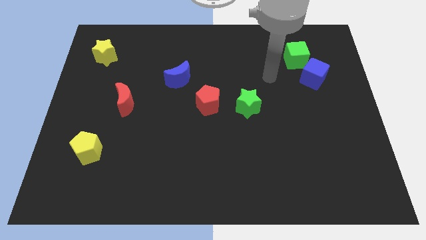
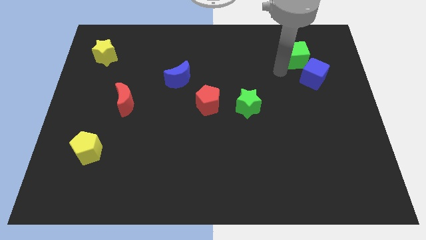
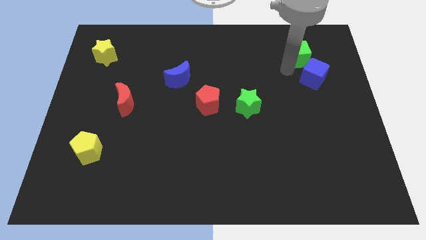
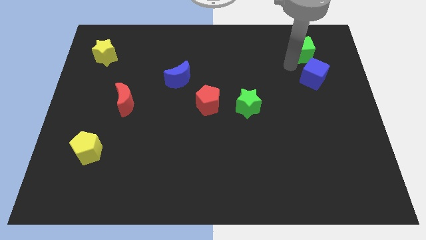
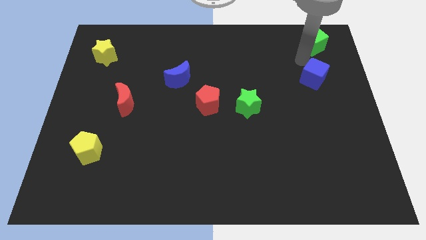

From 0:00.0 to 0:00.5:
separate the blue cube from the green cube

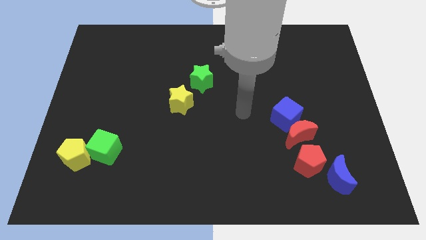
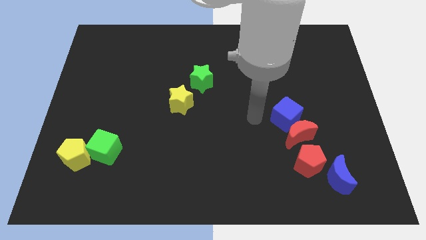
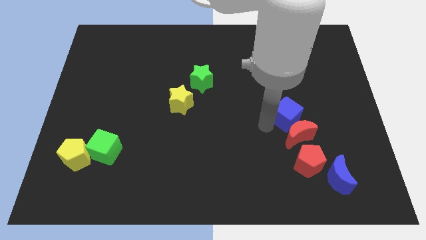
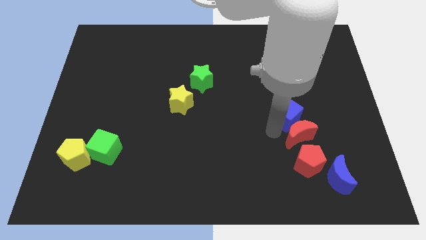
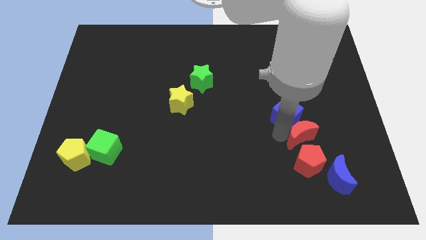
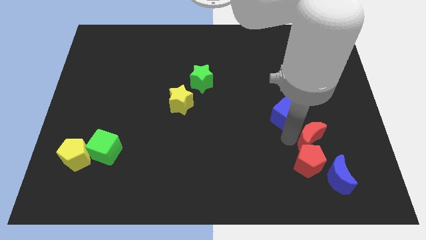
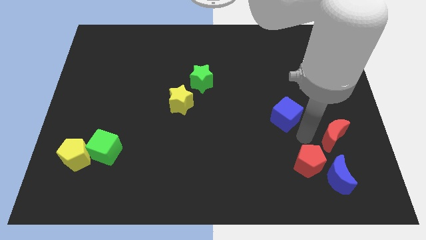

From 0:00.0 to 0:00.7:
move the blue cube away from the red moon

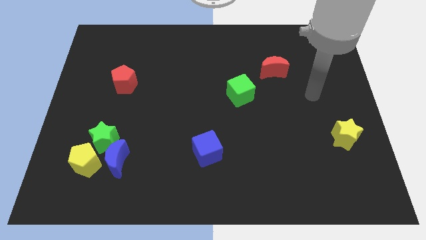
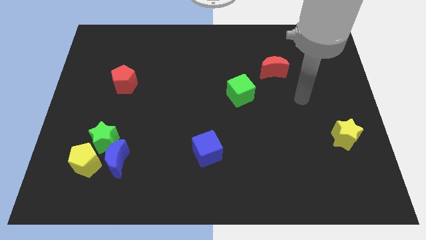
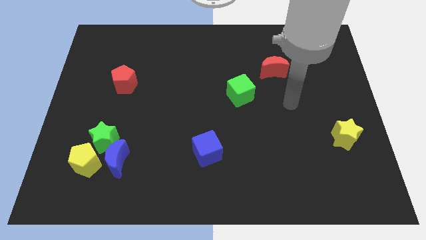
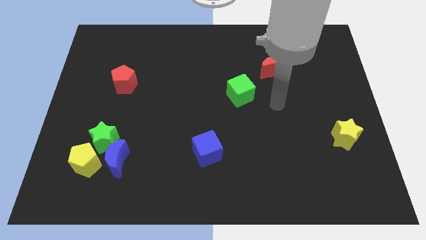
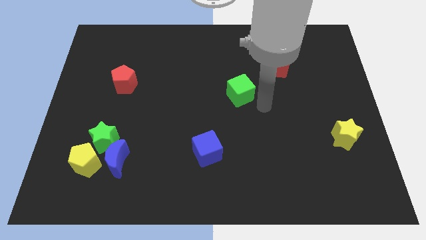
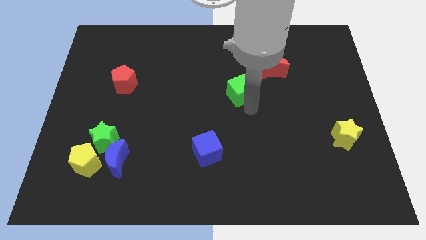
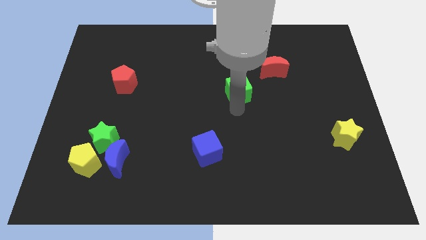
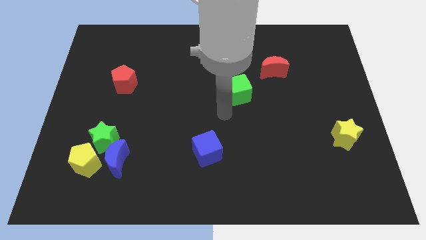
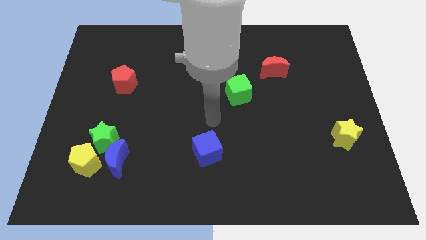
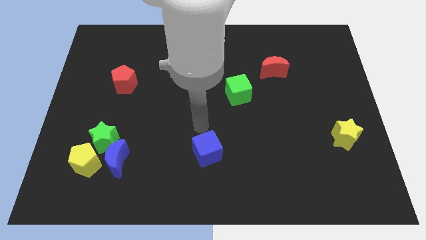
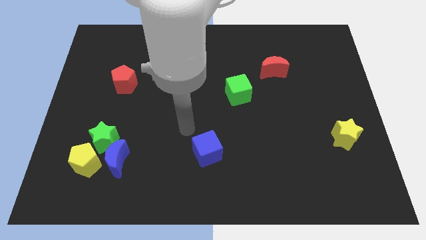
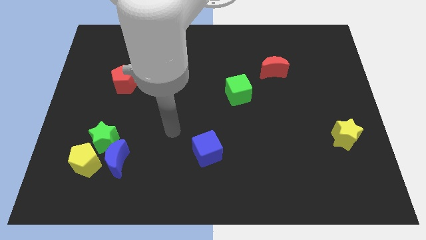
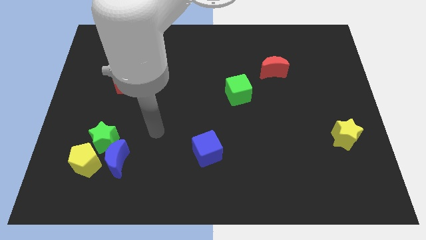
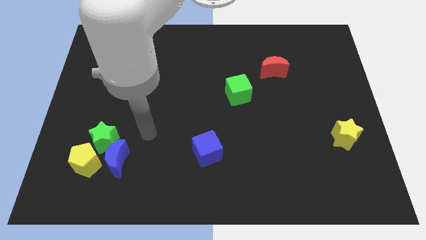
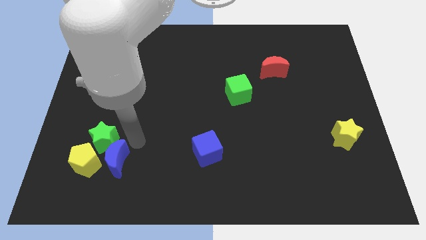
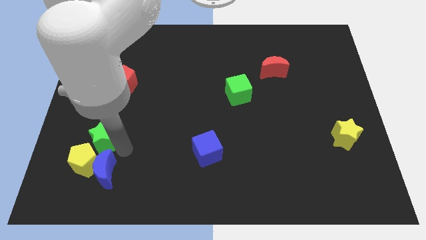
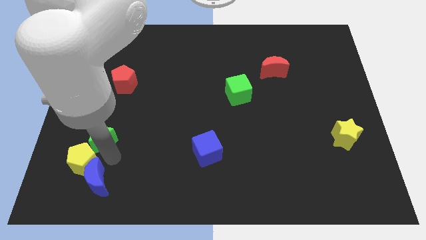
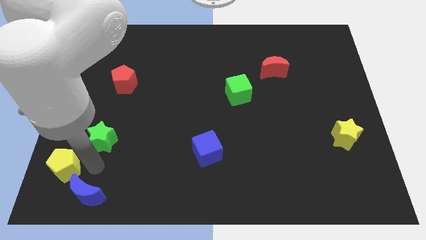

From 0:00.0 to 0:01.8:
separate the green star from the blue moon and yellow pentagon

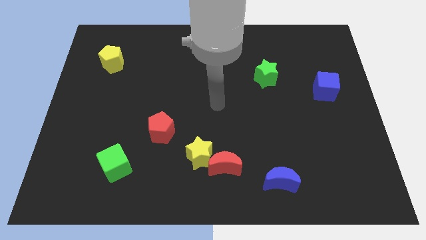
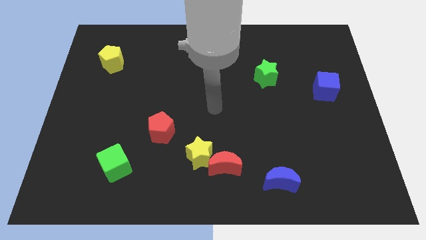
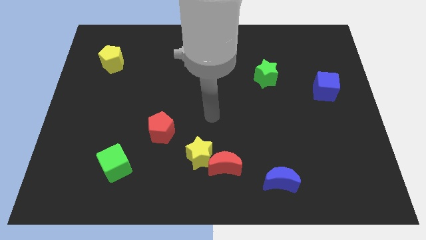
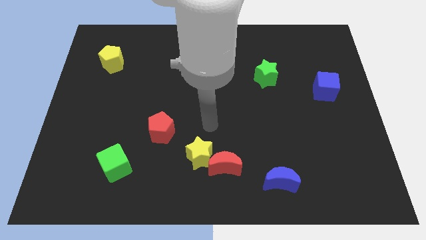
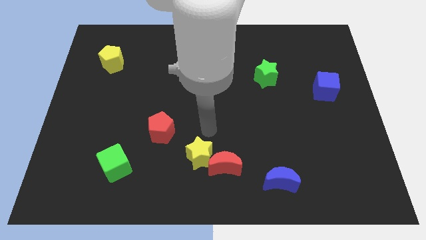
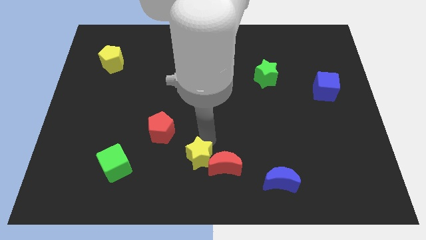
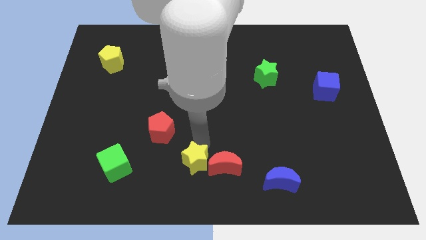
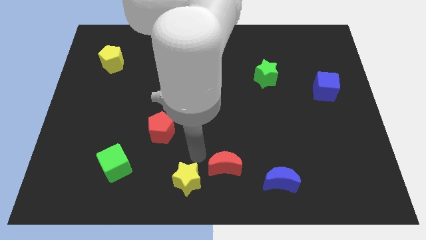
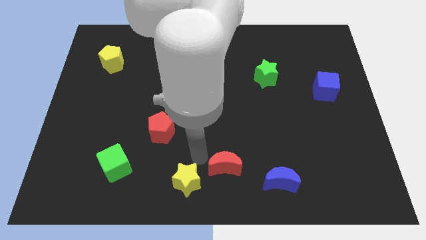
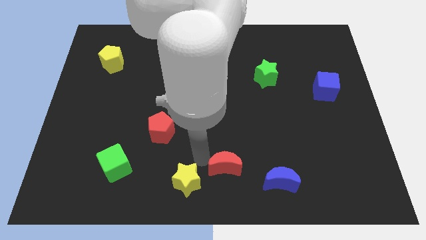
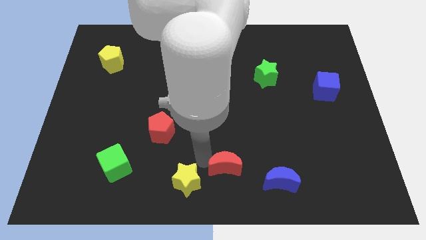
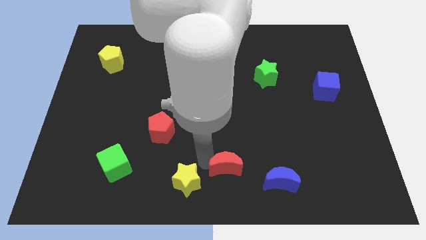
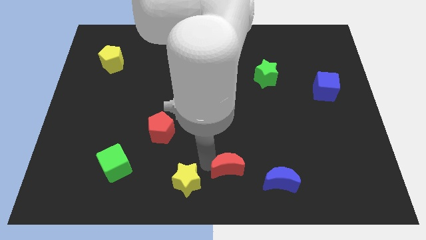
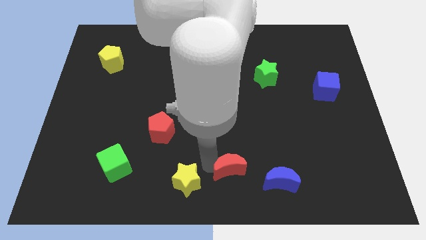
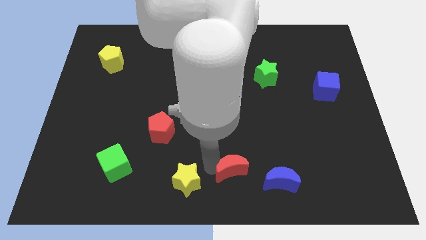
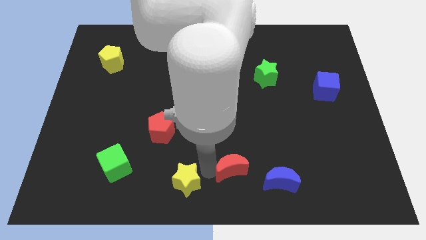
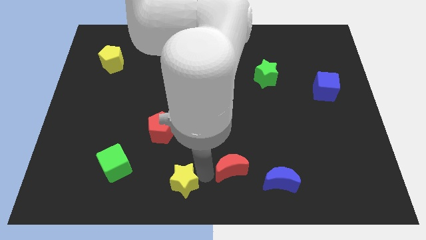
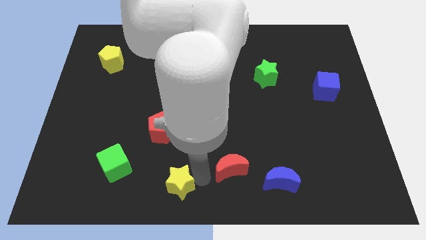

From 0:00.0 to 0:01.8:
move the red moon away from the yellow star

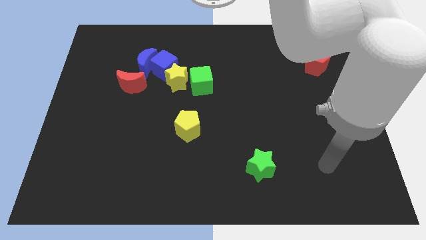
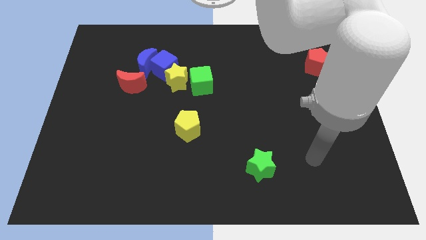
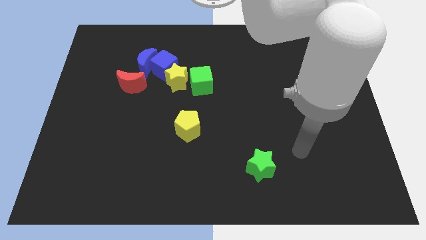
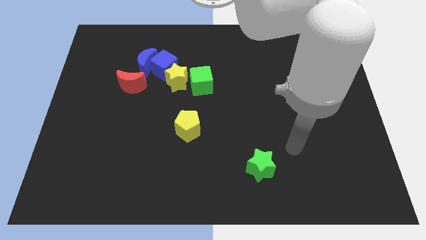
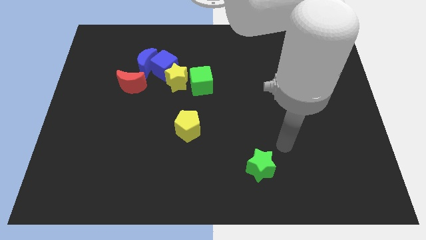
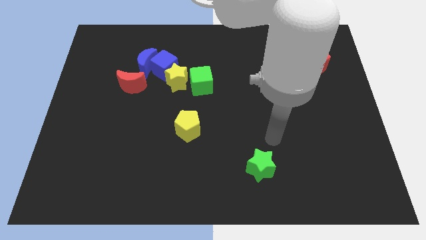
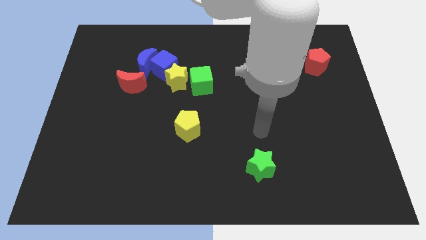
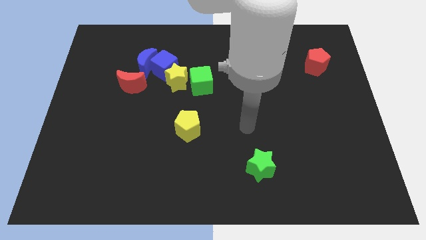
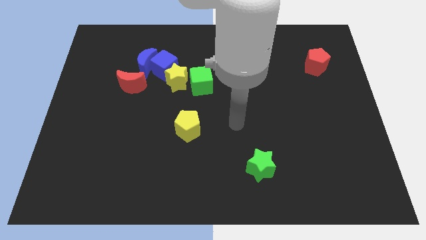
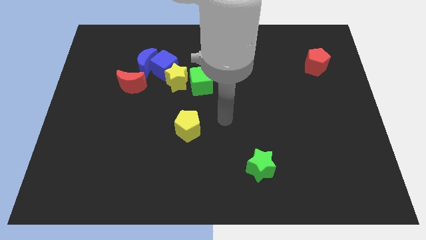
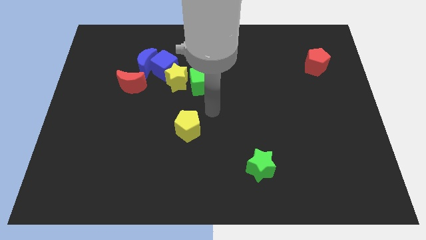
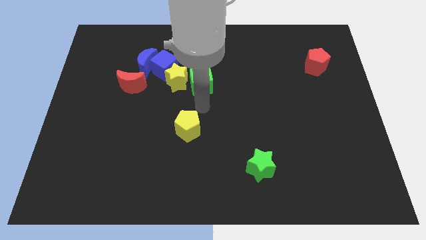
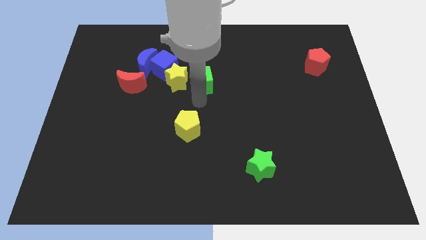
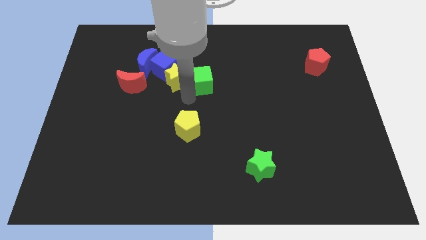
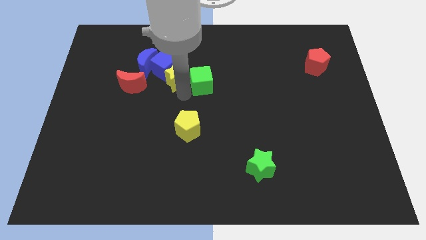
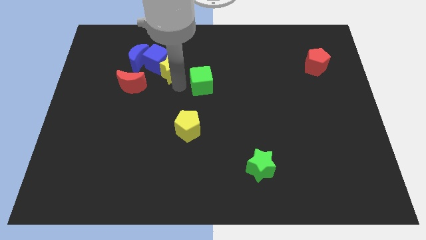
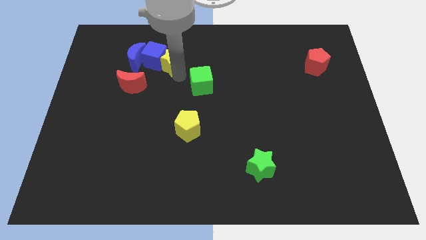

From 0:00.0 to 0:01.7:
separate the green cube from the yellow star

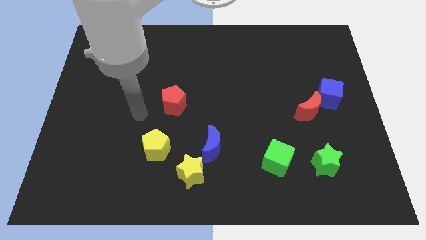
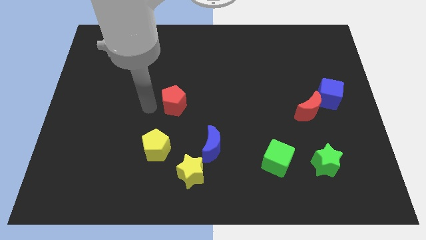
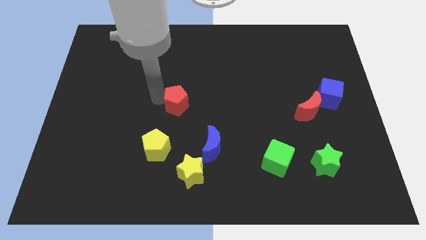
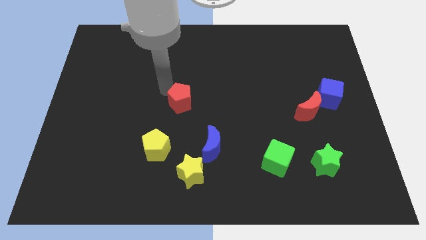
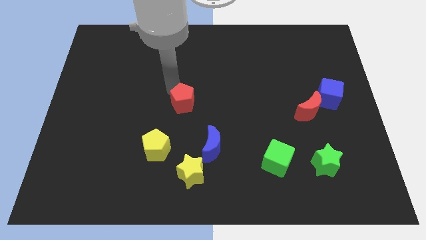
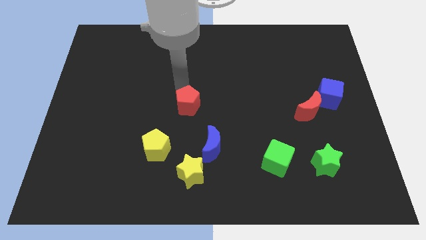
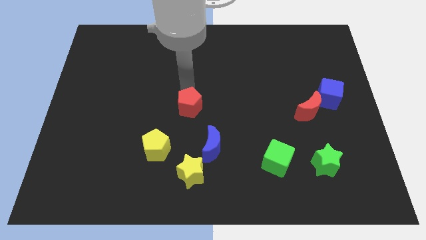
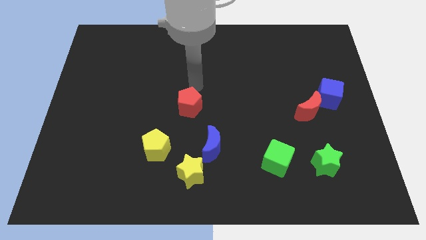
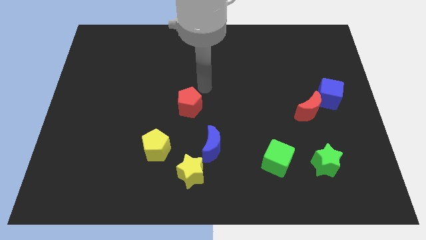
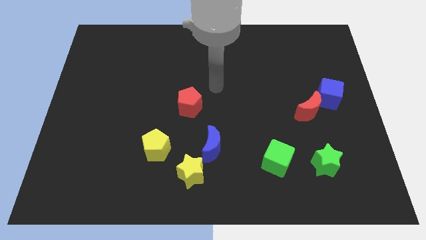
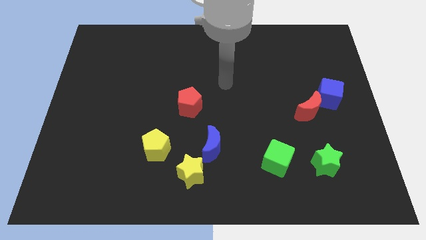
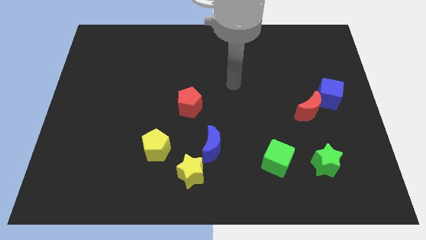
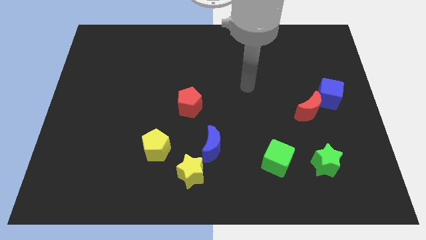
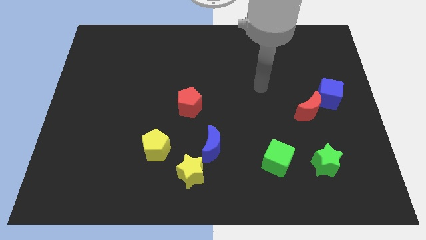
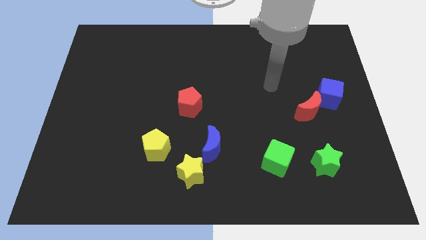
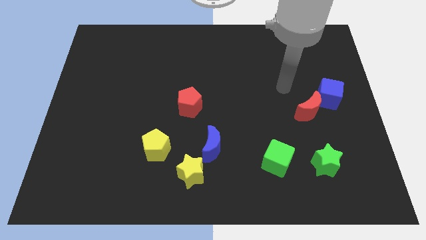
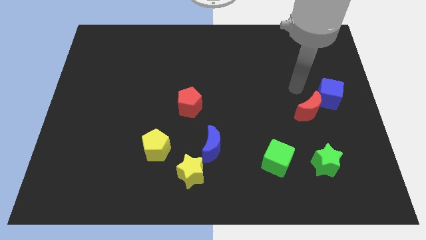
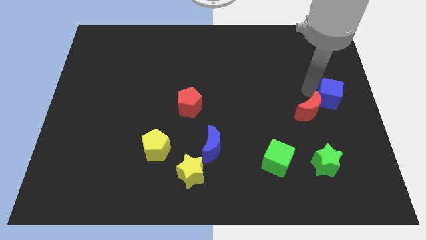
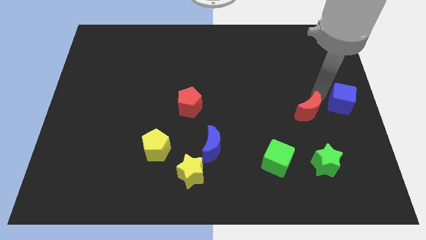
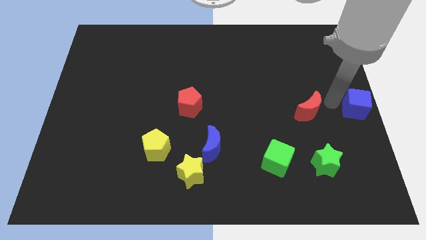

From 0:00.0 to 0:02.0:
pull the red moon apart from the blue cube

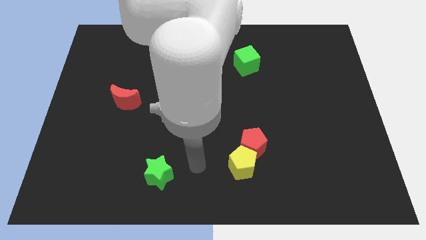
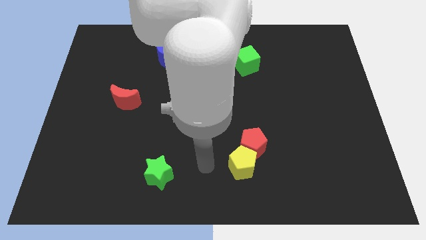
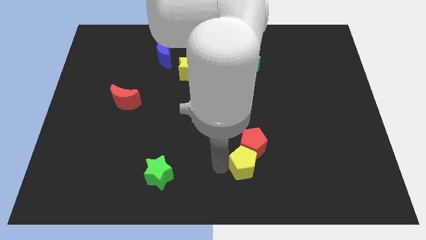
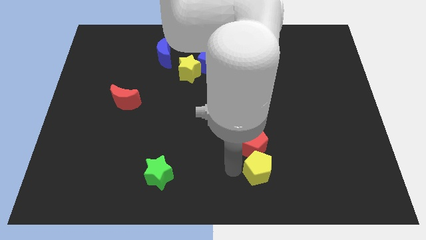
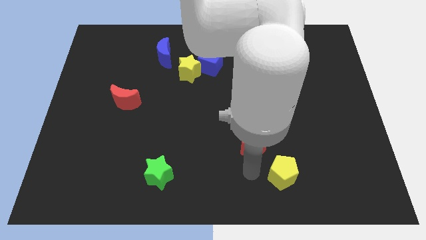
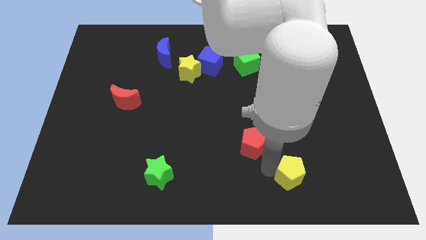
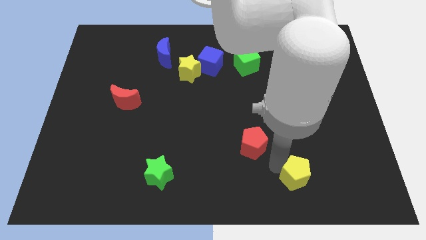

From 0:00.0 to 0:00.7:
separate the red pentagon from the yellow pentagon
